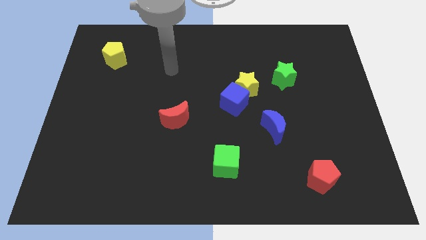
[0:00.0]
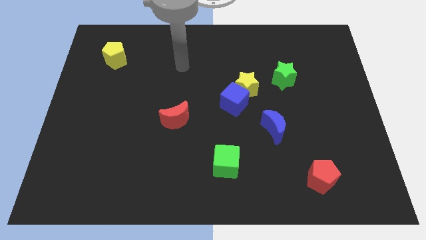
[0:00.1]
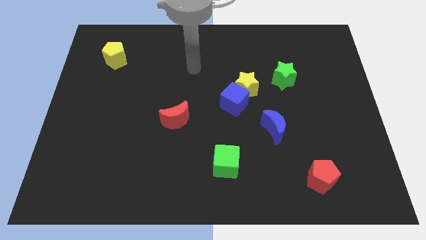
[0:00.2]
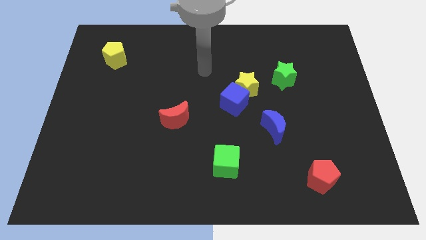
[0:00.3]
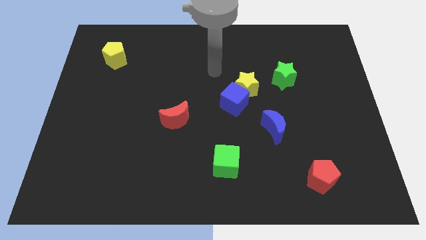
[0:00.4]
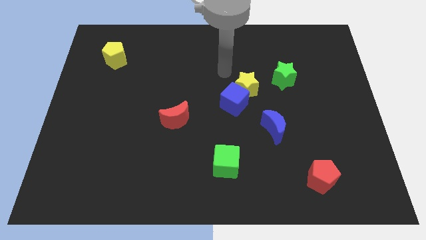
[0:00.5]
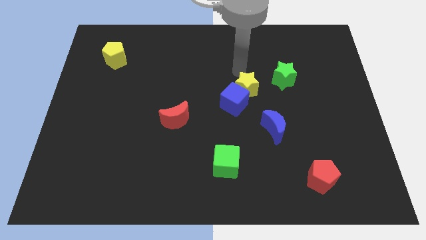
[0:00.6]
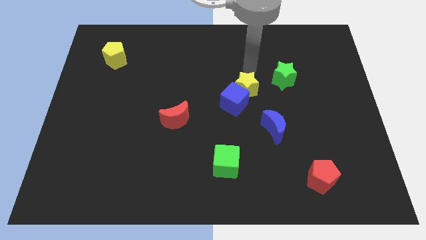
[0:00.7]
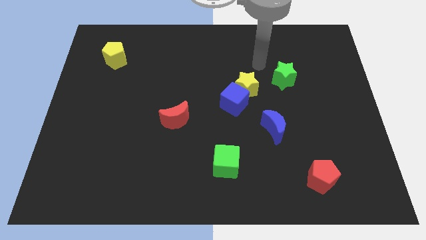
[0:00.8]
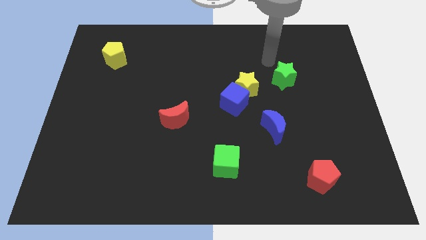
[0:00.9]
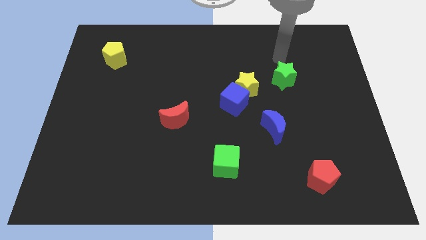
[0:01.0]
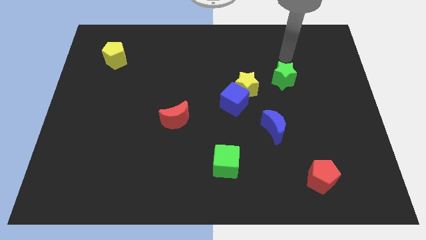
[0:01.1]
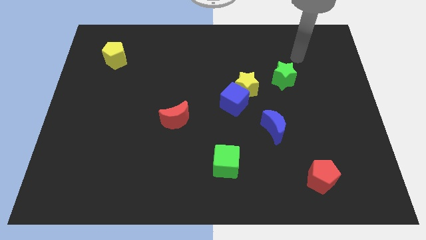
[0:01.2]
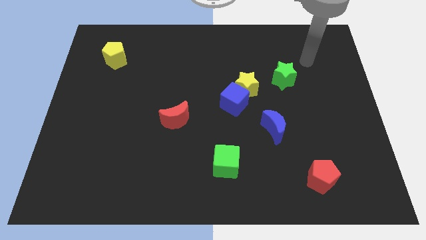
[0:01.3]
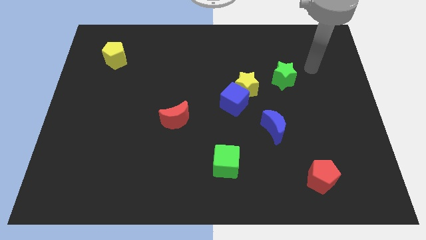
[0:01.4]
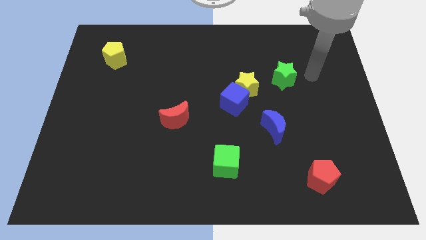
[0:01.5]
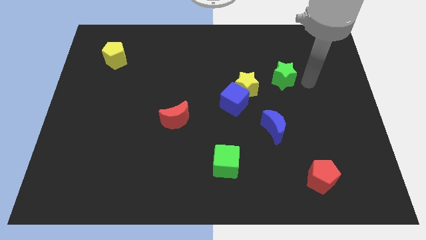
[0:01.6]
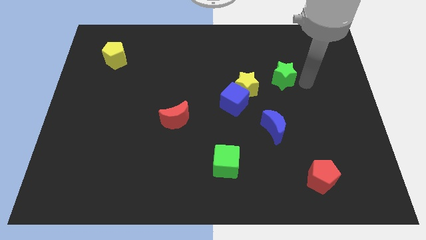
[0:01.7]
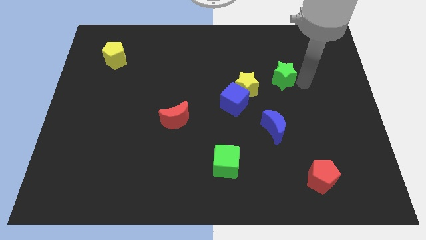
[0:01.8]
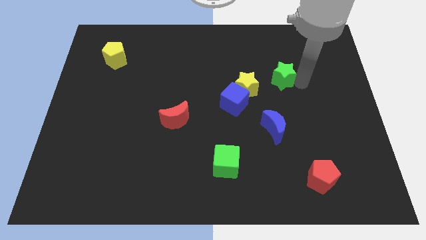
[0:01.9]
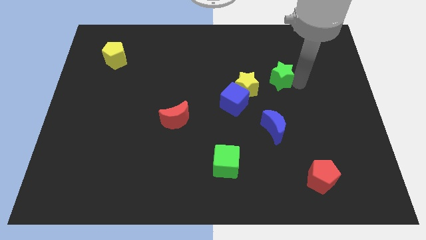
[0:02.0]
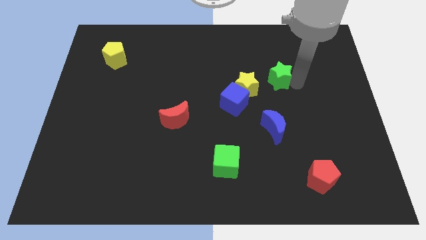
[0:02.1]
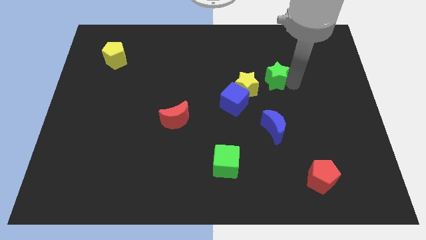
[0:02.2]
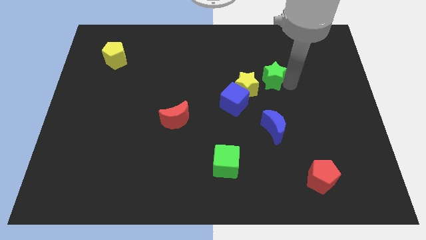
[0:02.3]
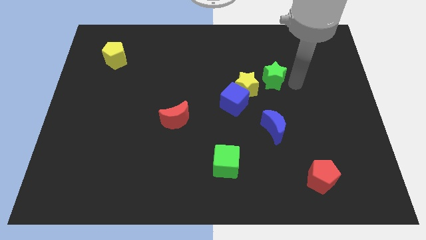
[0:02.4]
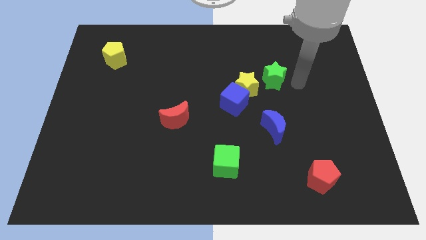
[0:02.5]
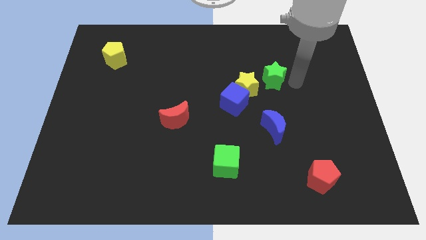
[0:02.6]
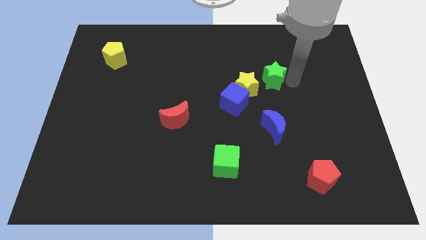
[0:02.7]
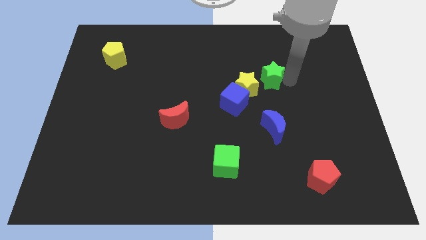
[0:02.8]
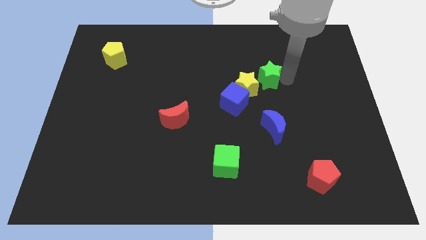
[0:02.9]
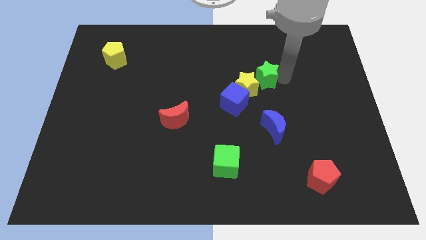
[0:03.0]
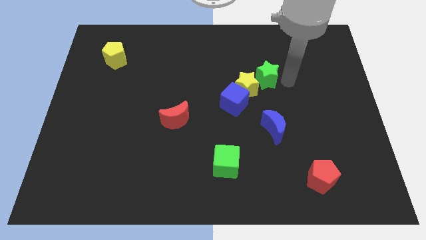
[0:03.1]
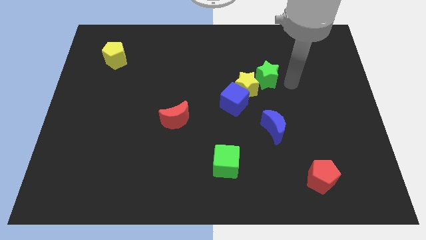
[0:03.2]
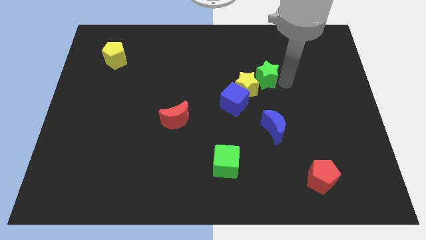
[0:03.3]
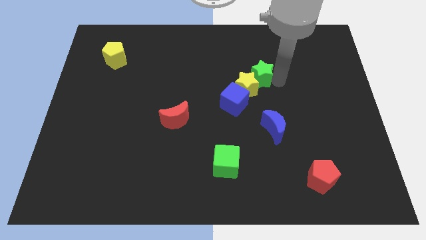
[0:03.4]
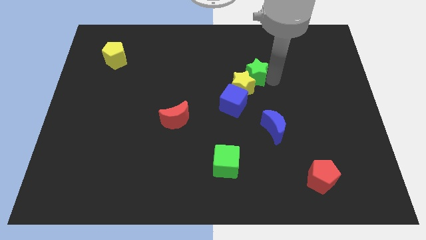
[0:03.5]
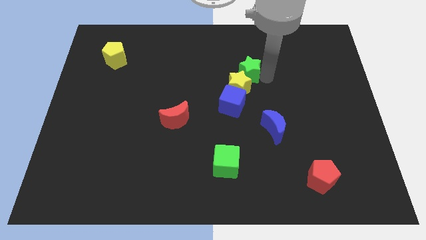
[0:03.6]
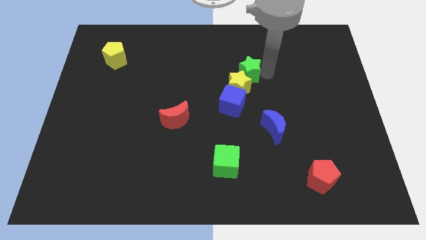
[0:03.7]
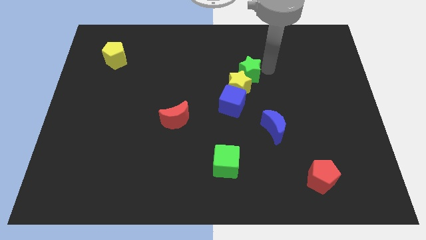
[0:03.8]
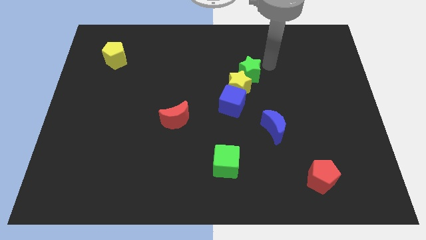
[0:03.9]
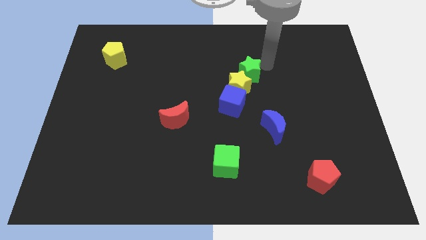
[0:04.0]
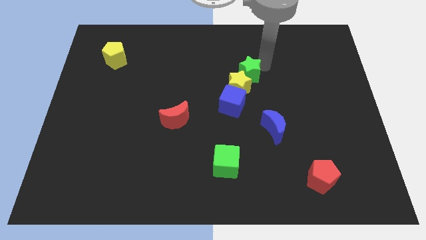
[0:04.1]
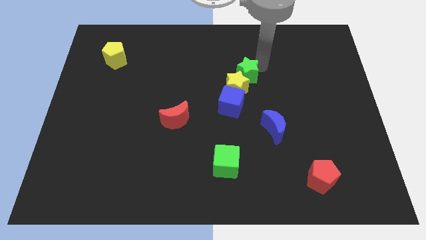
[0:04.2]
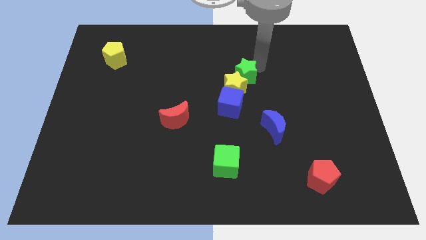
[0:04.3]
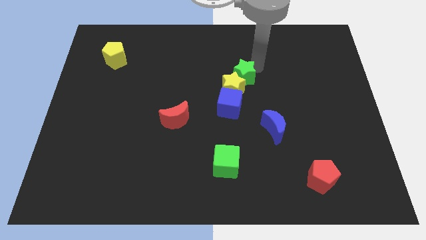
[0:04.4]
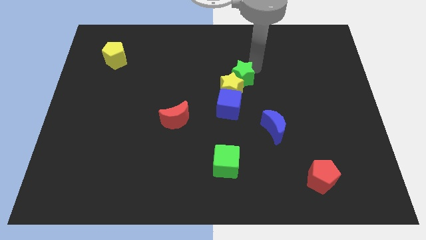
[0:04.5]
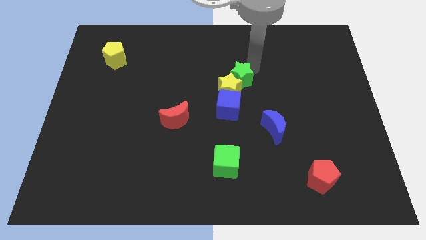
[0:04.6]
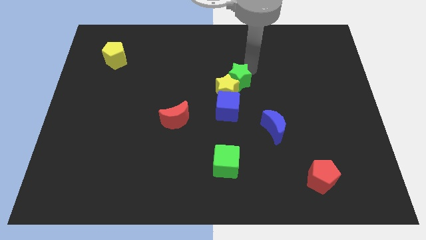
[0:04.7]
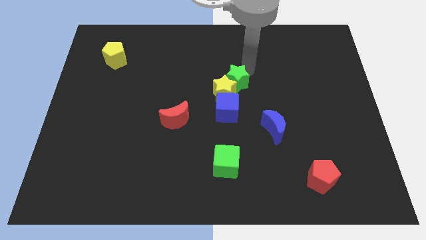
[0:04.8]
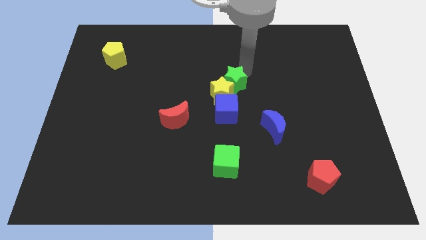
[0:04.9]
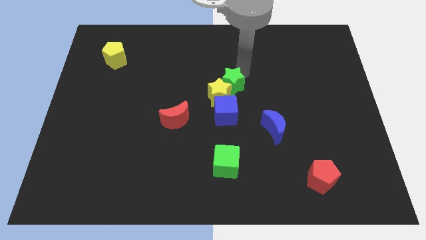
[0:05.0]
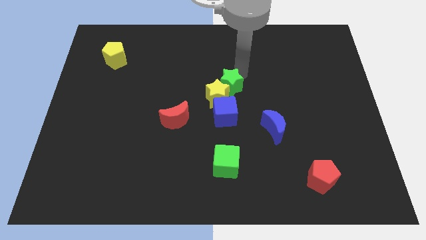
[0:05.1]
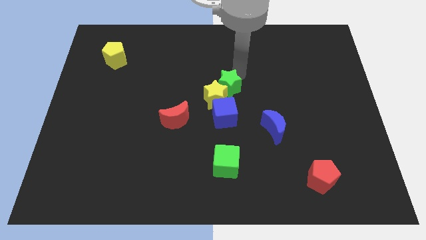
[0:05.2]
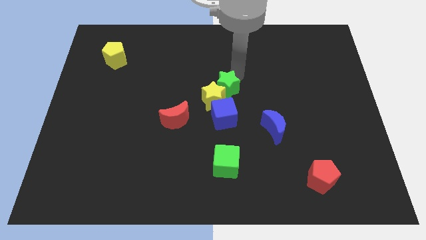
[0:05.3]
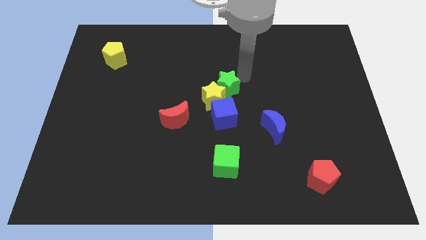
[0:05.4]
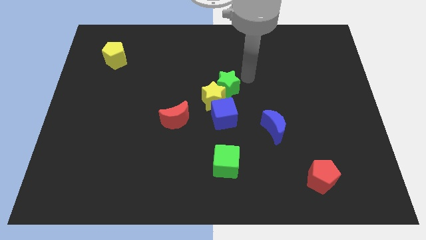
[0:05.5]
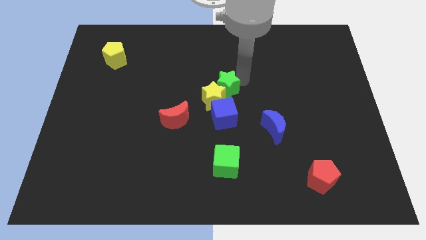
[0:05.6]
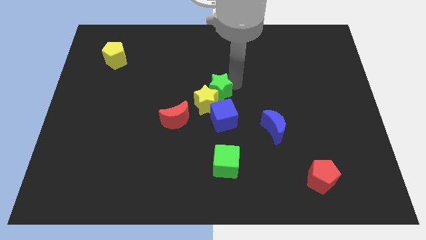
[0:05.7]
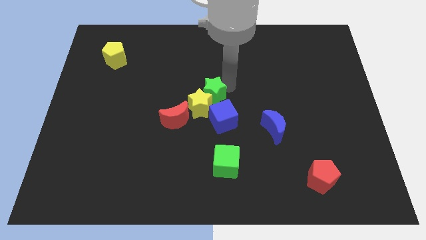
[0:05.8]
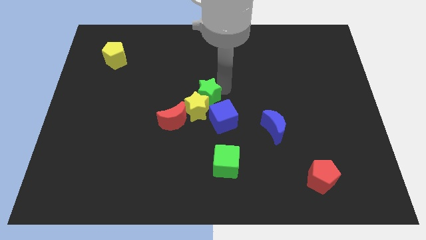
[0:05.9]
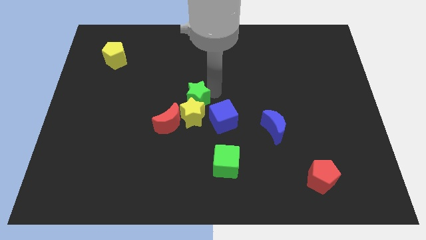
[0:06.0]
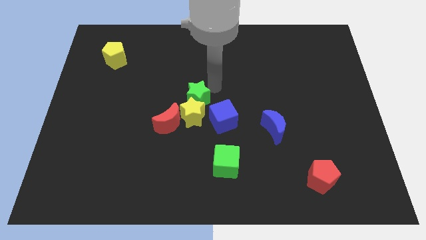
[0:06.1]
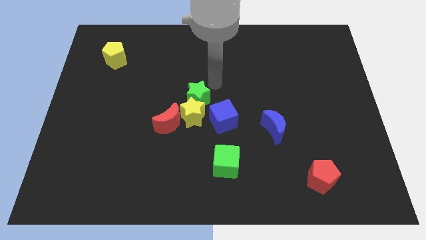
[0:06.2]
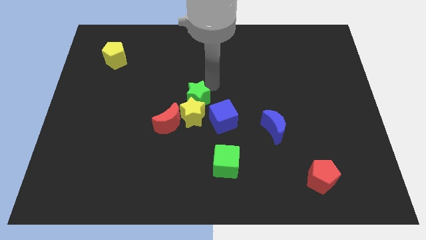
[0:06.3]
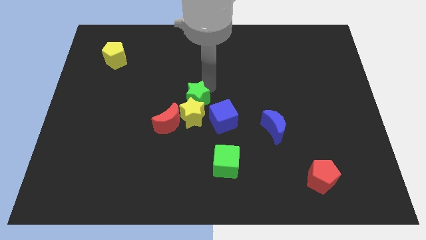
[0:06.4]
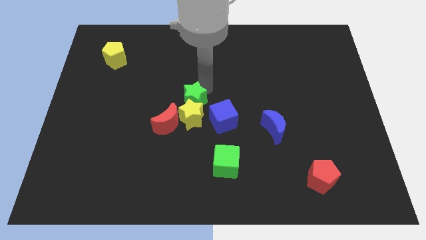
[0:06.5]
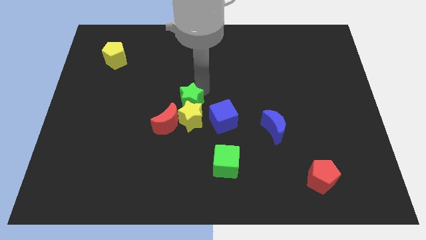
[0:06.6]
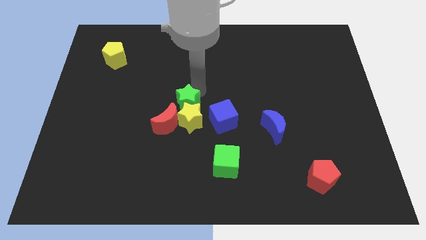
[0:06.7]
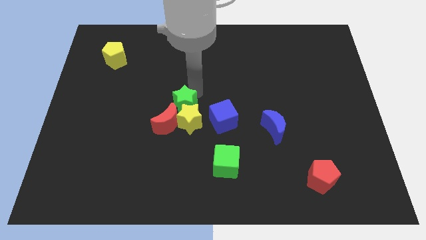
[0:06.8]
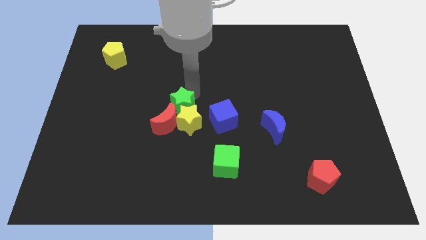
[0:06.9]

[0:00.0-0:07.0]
slide the green star close to the red moon
